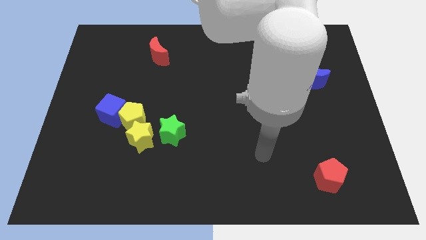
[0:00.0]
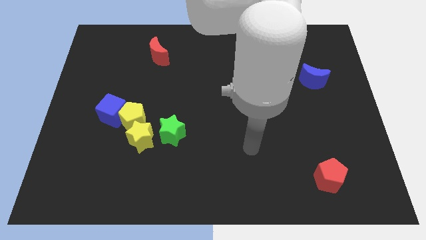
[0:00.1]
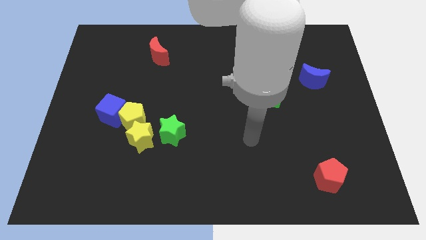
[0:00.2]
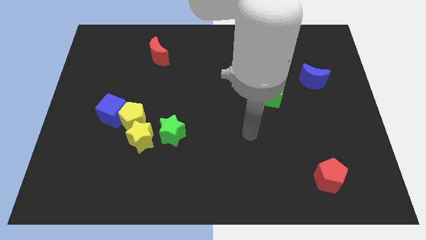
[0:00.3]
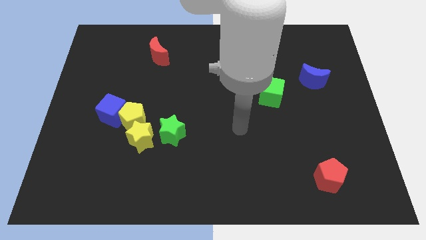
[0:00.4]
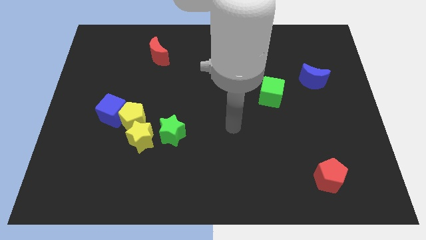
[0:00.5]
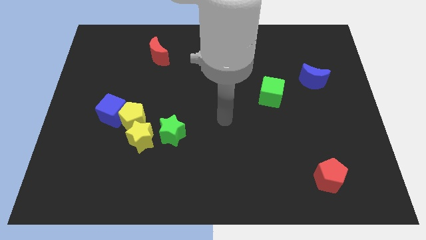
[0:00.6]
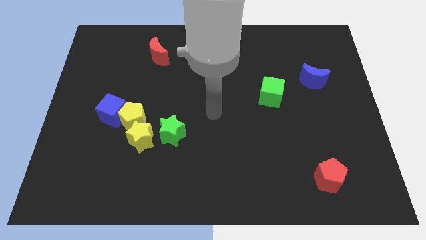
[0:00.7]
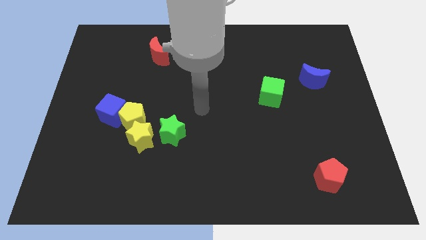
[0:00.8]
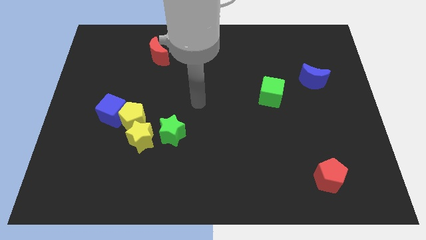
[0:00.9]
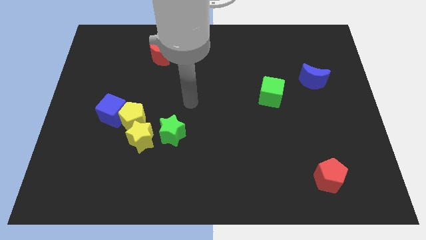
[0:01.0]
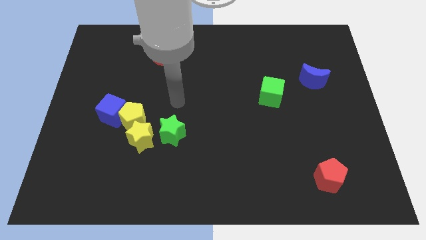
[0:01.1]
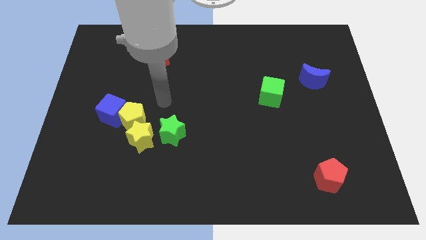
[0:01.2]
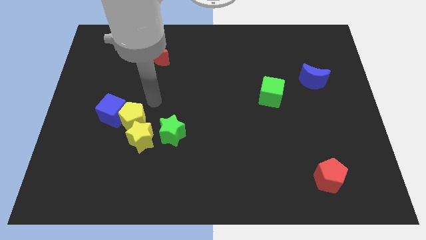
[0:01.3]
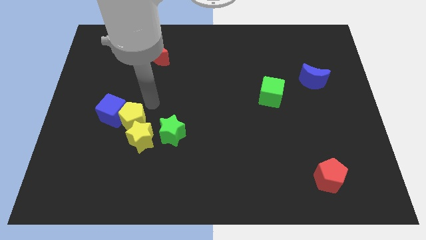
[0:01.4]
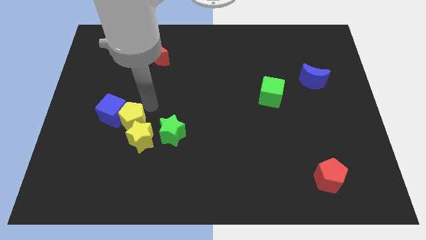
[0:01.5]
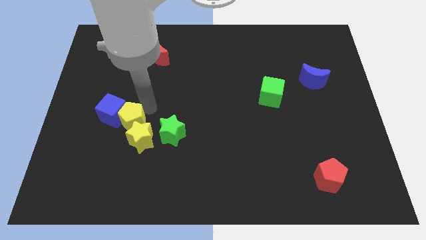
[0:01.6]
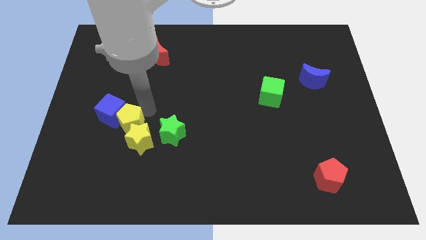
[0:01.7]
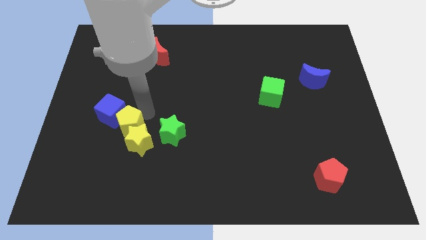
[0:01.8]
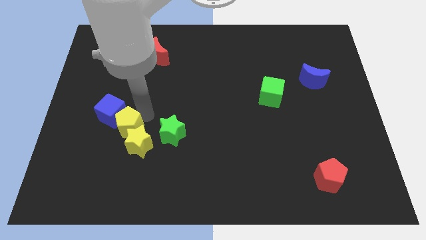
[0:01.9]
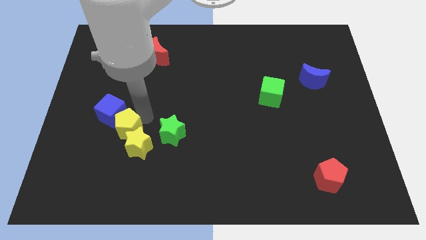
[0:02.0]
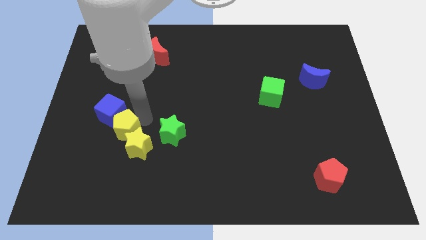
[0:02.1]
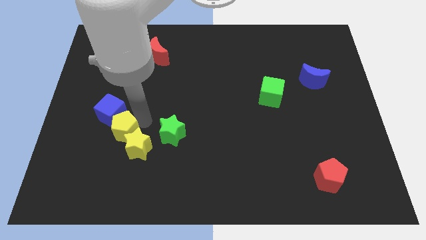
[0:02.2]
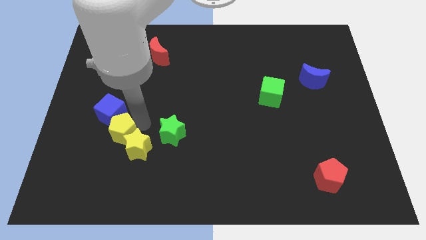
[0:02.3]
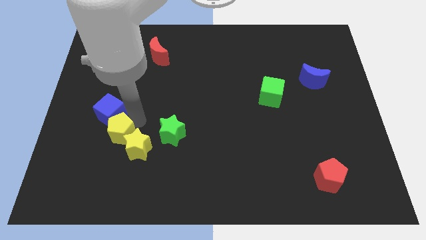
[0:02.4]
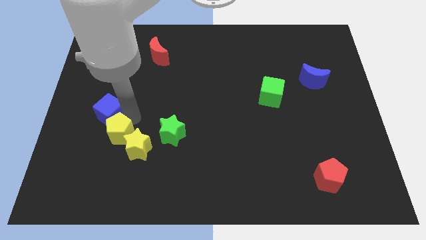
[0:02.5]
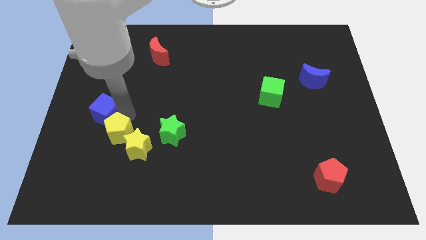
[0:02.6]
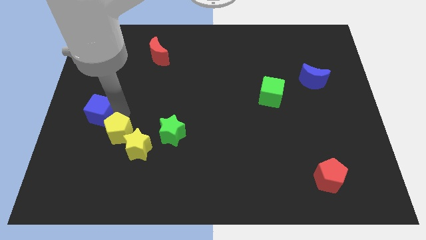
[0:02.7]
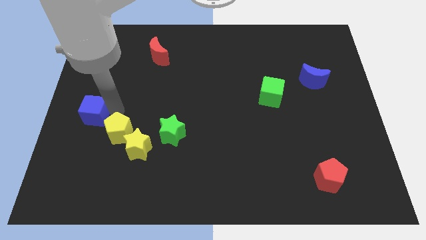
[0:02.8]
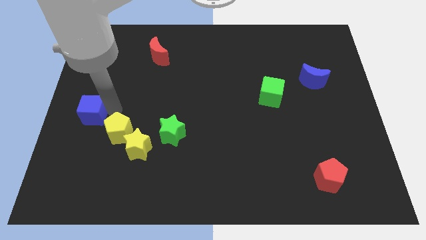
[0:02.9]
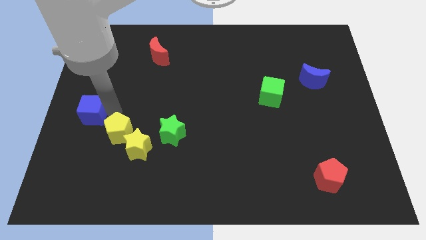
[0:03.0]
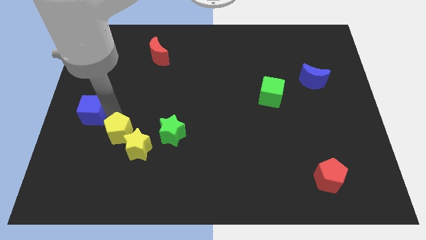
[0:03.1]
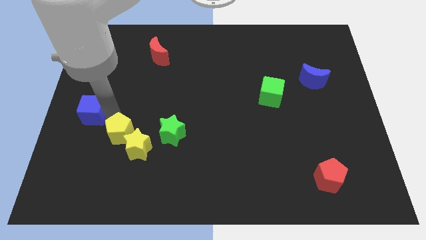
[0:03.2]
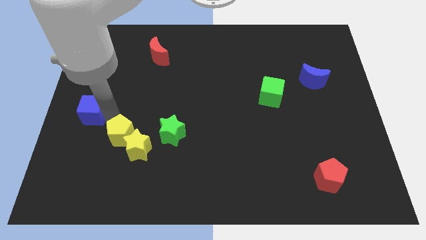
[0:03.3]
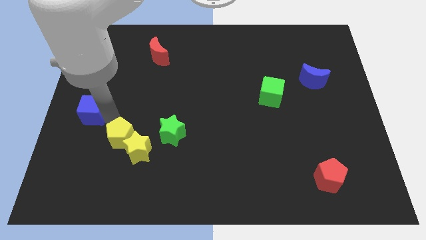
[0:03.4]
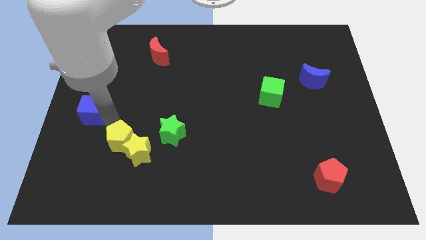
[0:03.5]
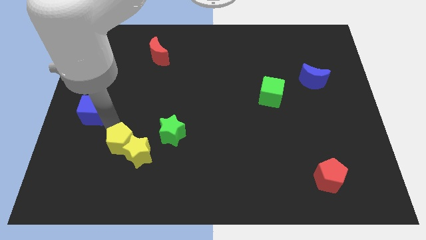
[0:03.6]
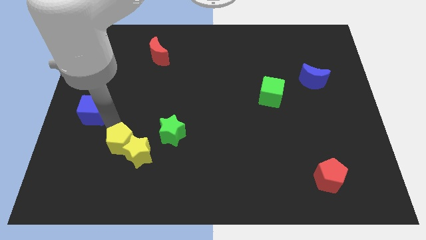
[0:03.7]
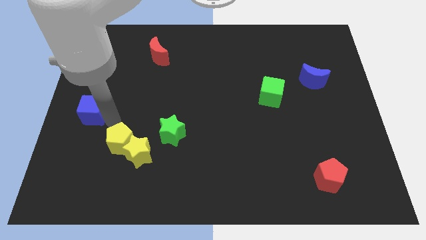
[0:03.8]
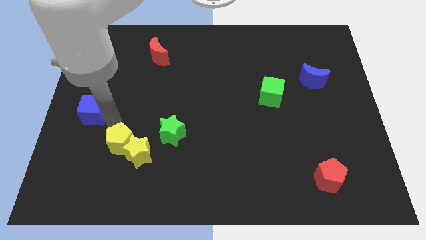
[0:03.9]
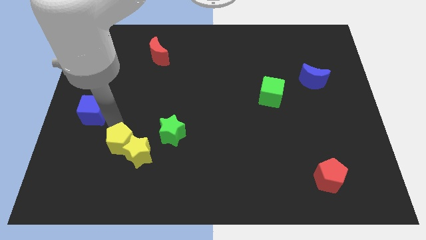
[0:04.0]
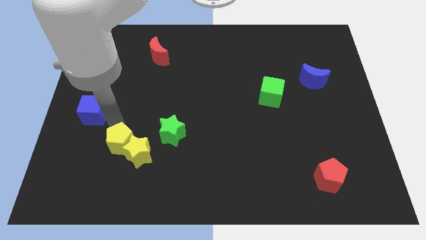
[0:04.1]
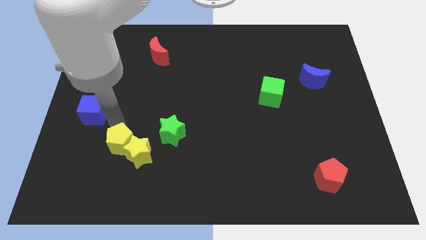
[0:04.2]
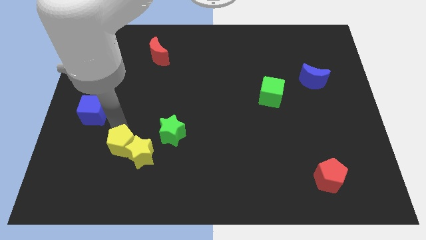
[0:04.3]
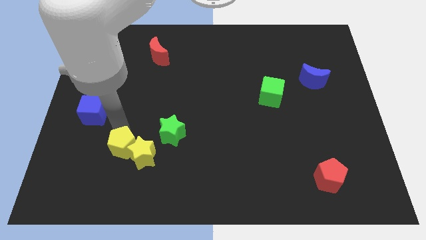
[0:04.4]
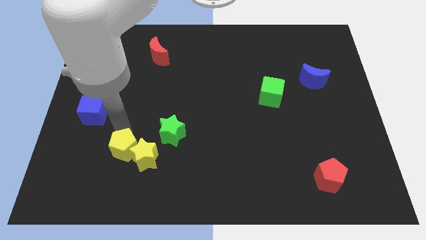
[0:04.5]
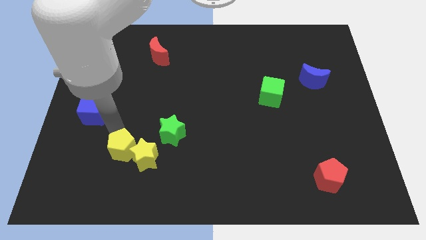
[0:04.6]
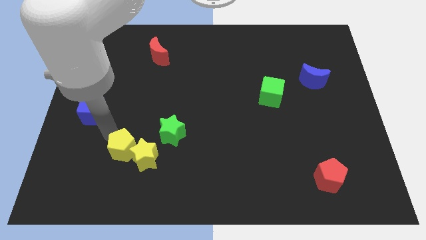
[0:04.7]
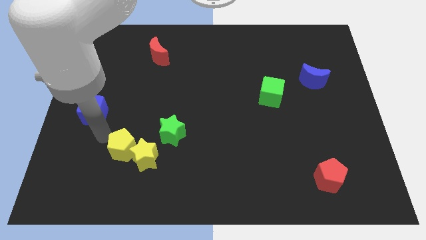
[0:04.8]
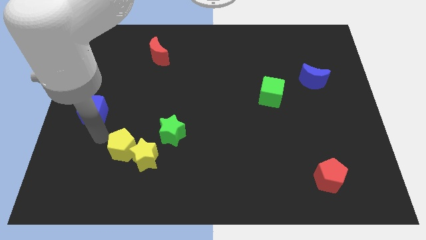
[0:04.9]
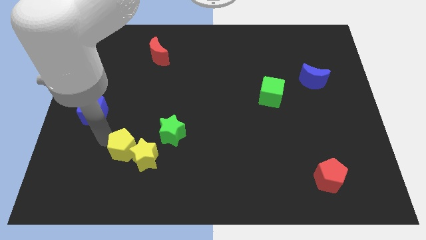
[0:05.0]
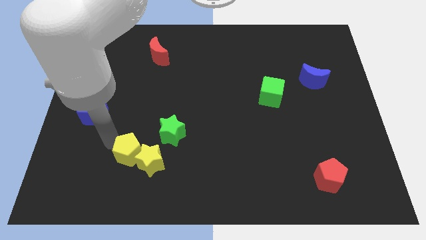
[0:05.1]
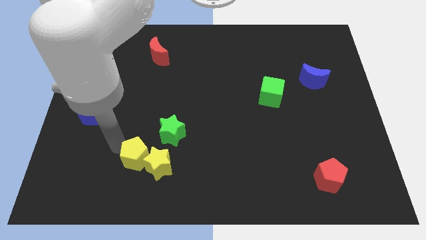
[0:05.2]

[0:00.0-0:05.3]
push the yellow pentagon a little bit down and then to the right

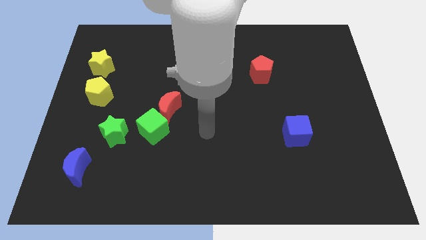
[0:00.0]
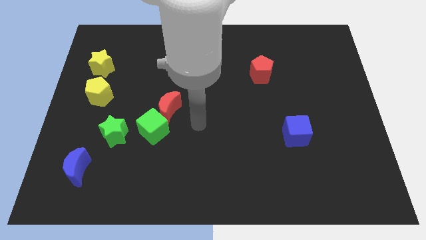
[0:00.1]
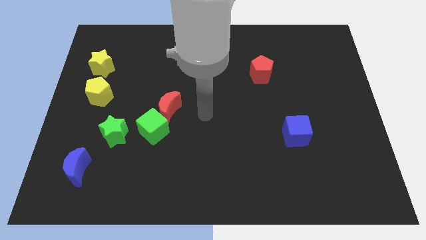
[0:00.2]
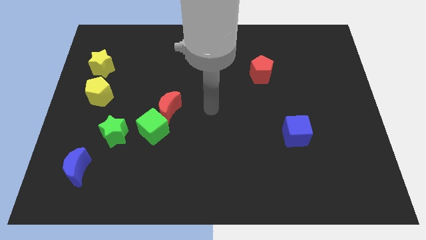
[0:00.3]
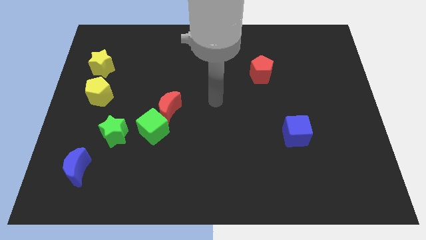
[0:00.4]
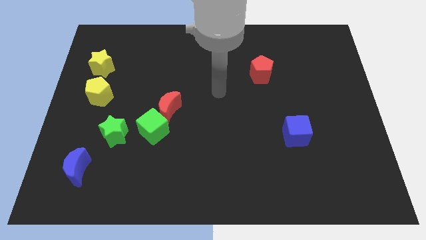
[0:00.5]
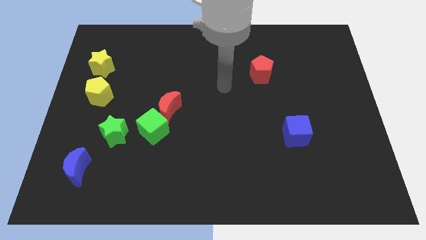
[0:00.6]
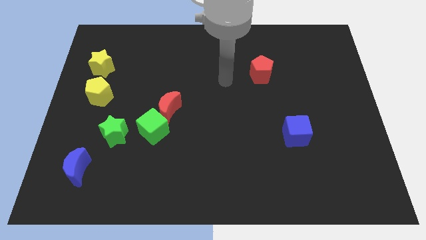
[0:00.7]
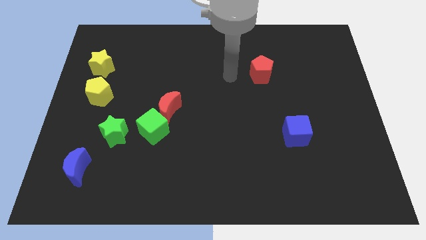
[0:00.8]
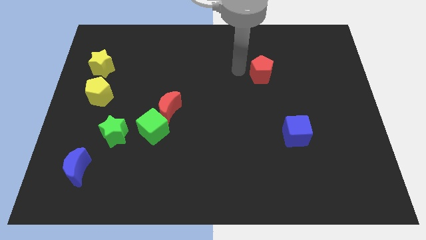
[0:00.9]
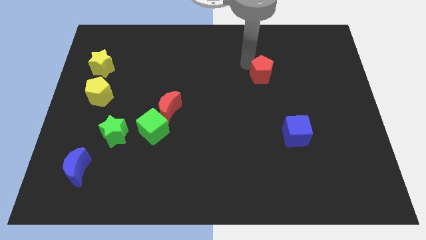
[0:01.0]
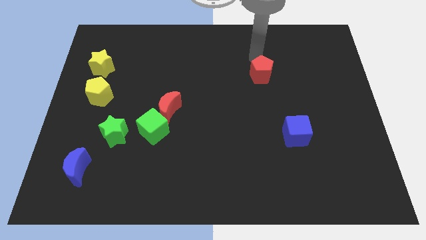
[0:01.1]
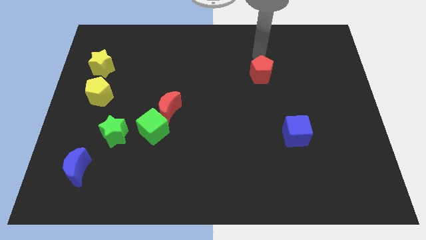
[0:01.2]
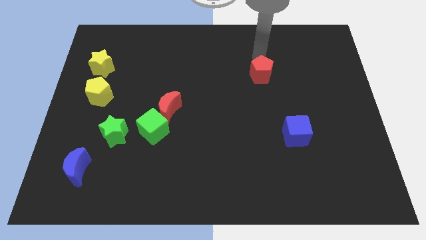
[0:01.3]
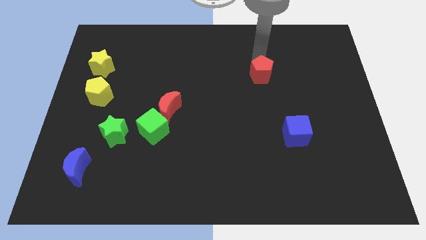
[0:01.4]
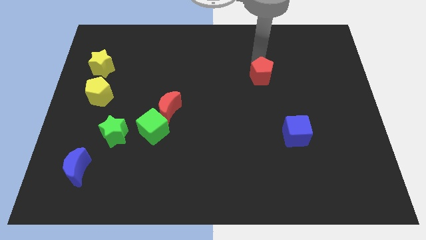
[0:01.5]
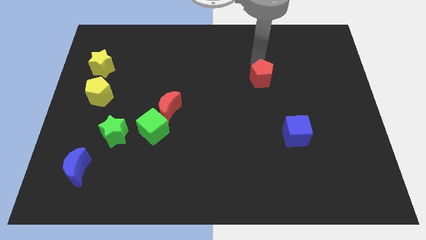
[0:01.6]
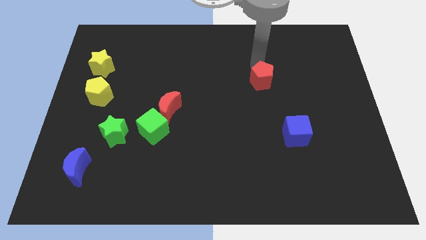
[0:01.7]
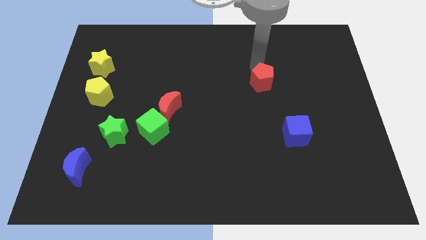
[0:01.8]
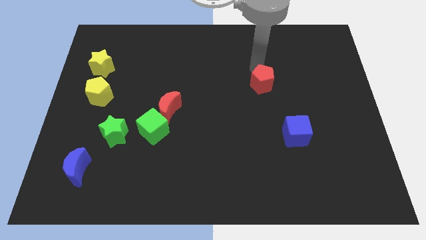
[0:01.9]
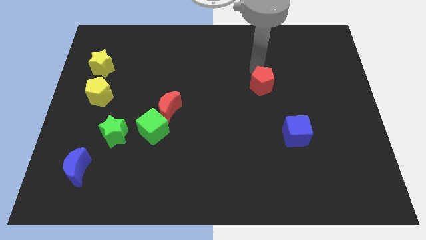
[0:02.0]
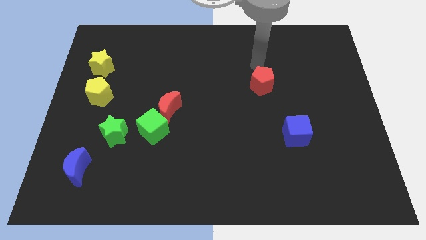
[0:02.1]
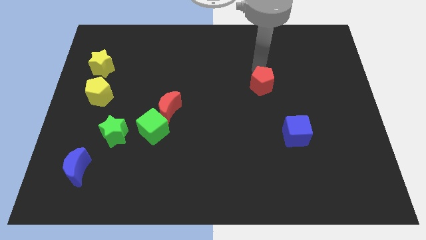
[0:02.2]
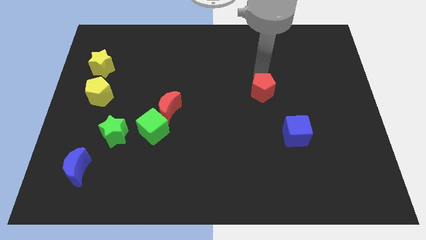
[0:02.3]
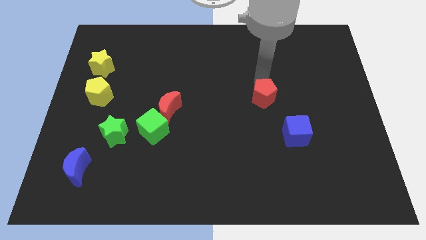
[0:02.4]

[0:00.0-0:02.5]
push the red pentagon downwards a bit

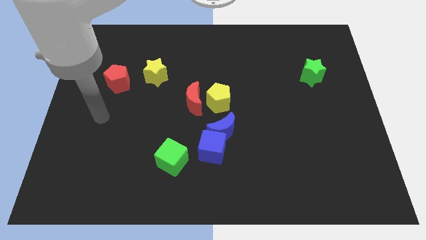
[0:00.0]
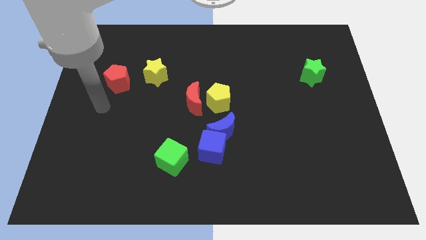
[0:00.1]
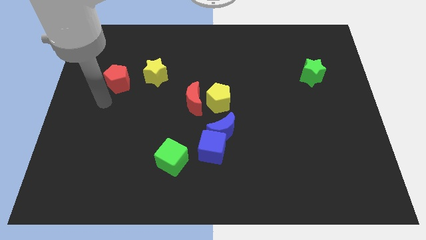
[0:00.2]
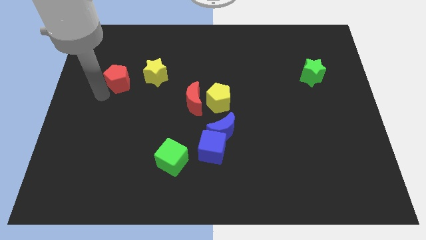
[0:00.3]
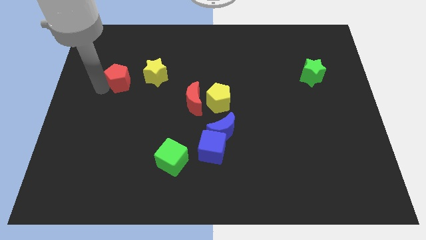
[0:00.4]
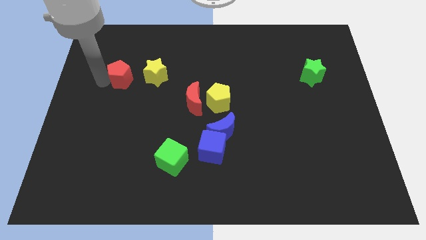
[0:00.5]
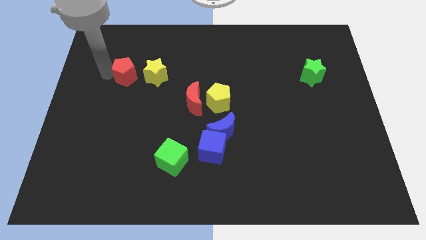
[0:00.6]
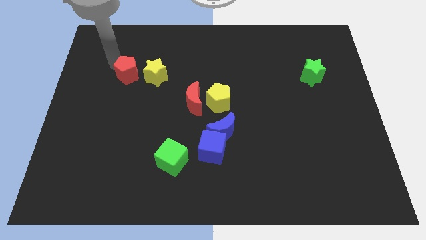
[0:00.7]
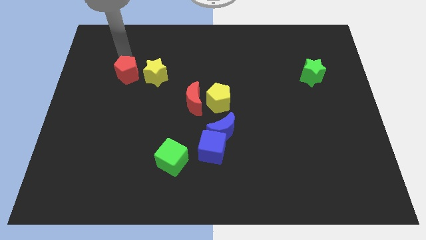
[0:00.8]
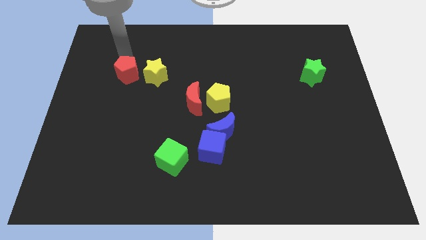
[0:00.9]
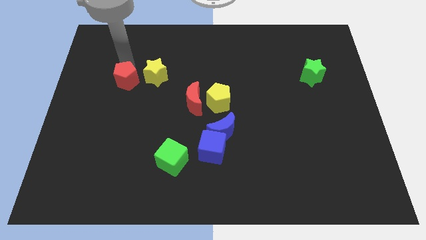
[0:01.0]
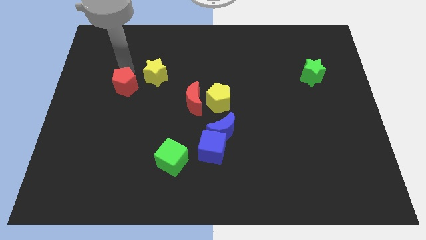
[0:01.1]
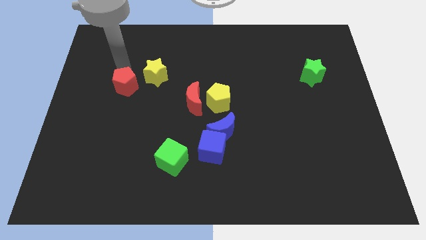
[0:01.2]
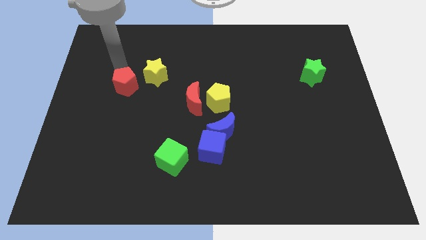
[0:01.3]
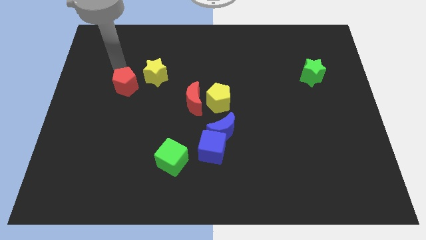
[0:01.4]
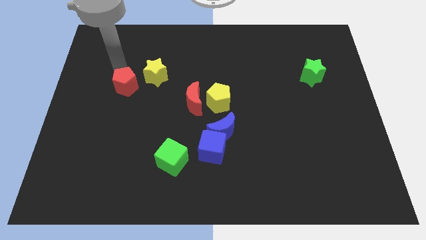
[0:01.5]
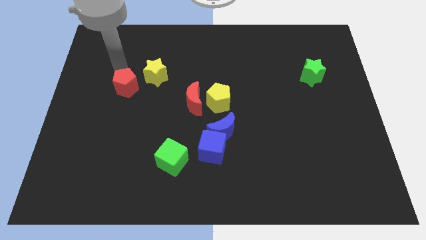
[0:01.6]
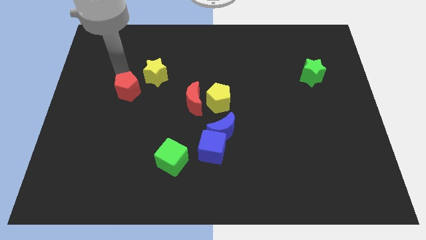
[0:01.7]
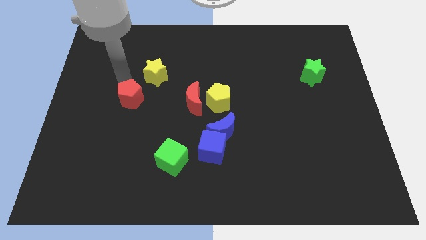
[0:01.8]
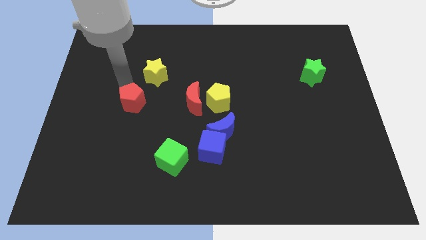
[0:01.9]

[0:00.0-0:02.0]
move the red pentagon somewhat down and then right
